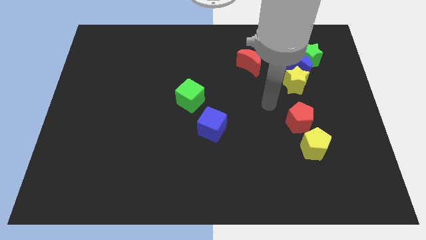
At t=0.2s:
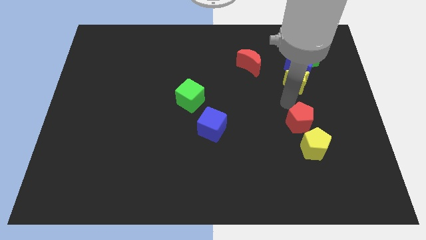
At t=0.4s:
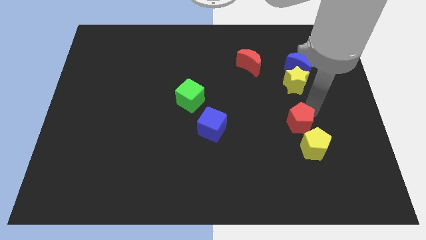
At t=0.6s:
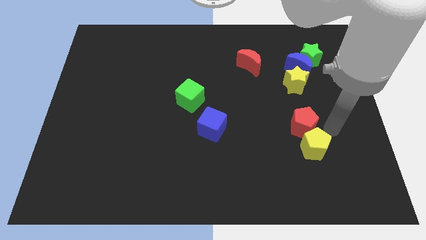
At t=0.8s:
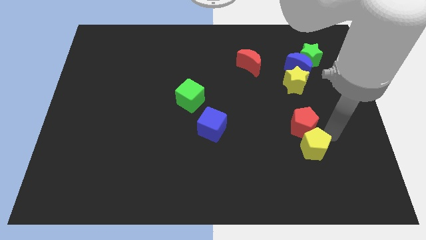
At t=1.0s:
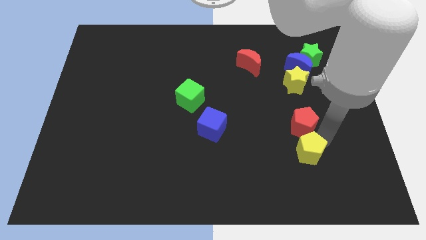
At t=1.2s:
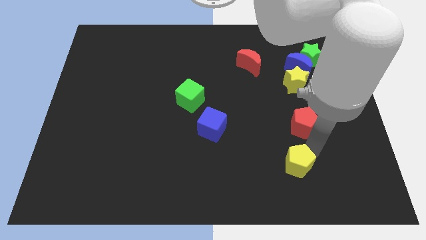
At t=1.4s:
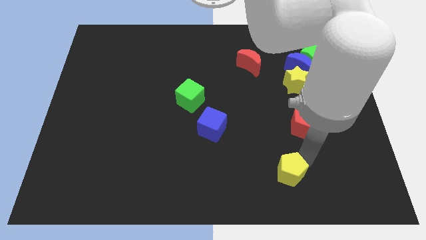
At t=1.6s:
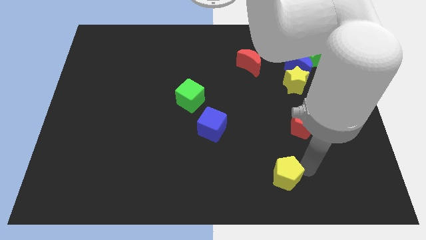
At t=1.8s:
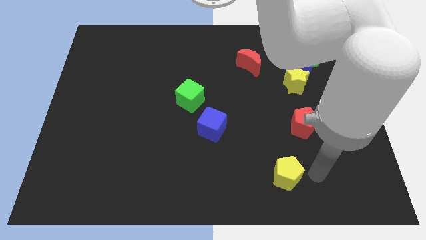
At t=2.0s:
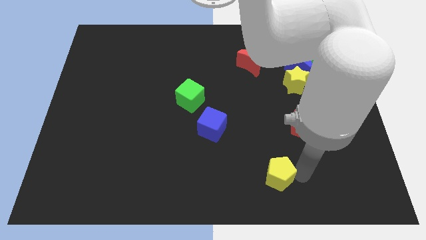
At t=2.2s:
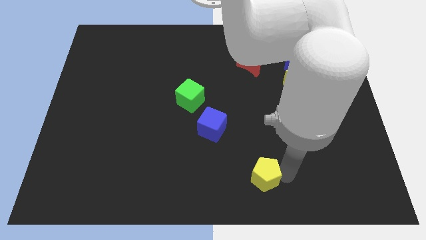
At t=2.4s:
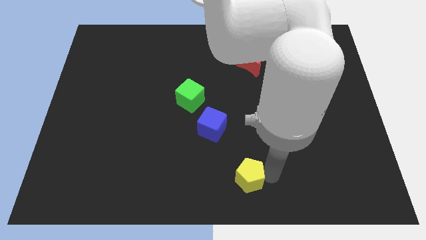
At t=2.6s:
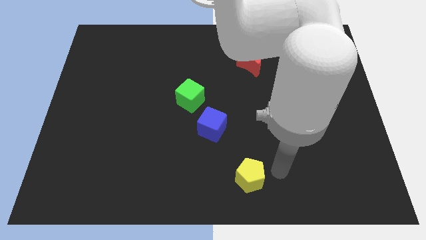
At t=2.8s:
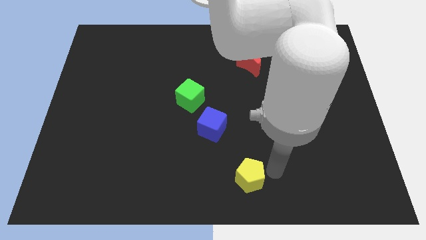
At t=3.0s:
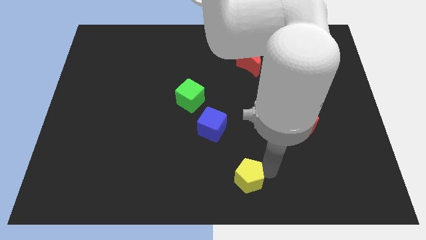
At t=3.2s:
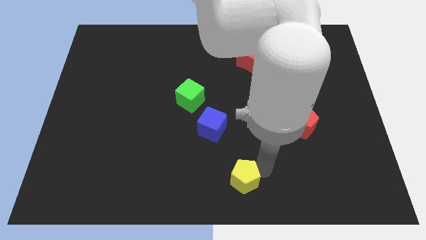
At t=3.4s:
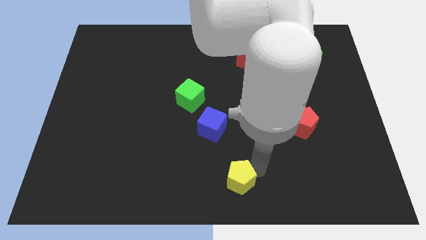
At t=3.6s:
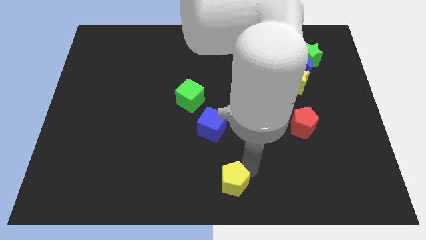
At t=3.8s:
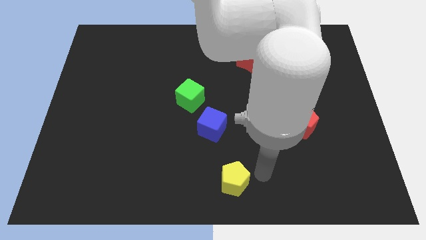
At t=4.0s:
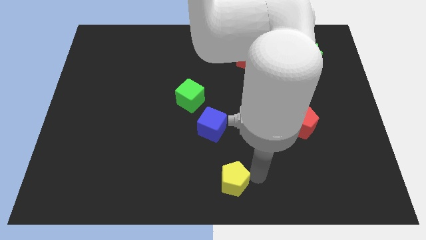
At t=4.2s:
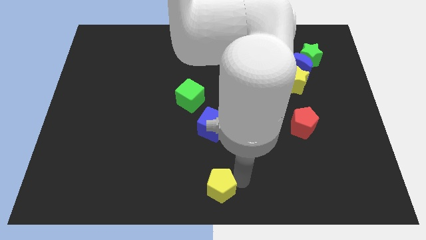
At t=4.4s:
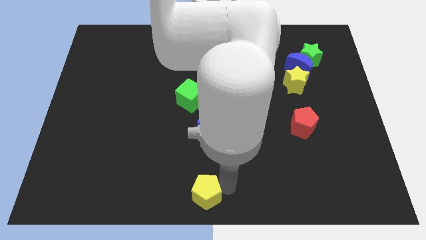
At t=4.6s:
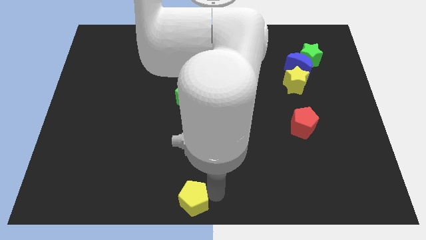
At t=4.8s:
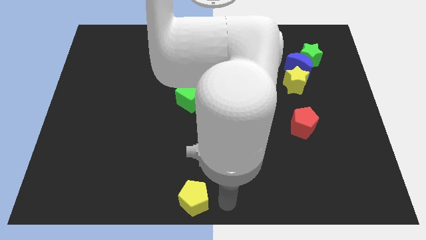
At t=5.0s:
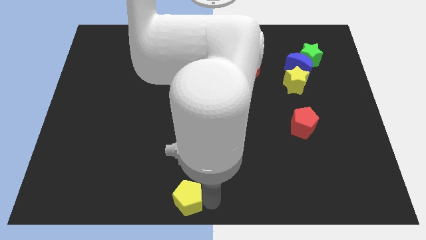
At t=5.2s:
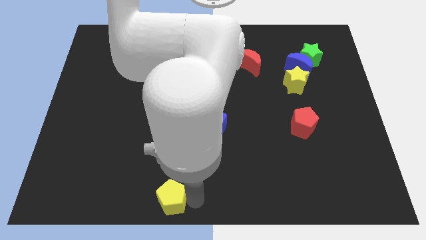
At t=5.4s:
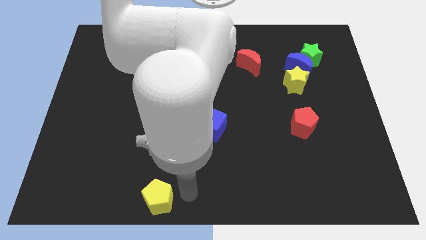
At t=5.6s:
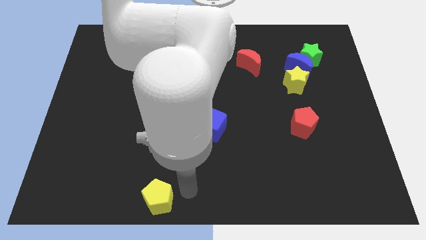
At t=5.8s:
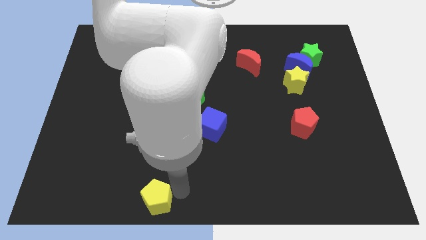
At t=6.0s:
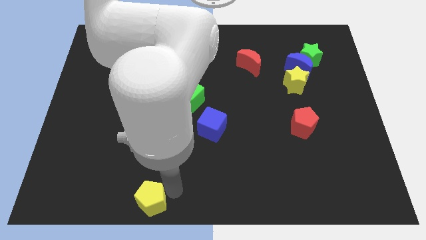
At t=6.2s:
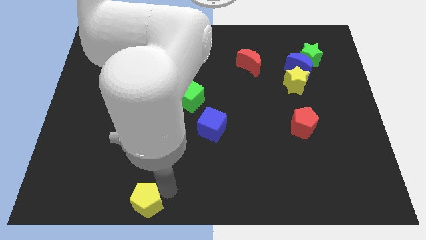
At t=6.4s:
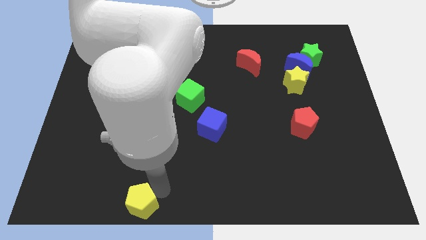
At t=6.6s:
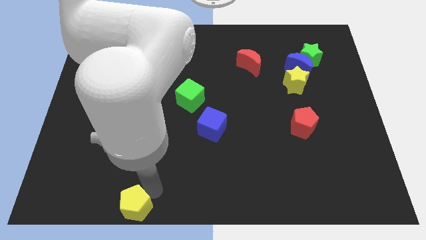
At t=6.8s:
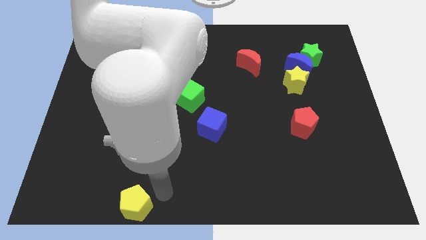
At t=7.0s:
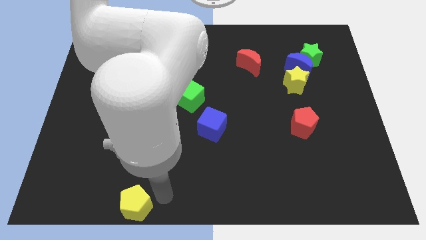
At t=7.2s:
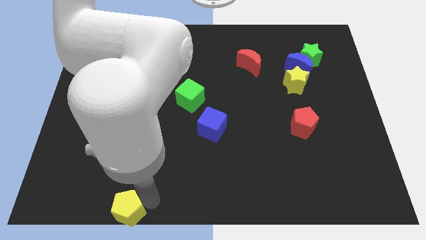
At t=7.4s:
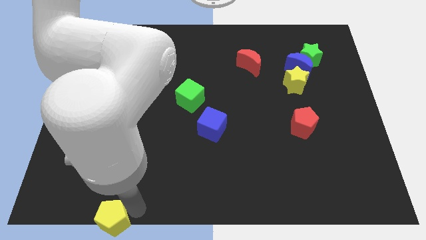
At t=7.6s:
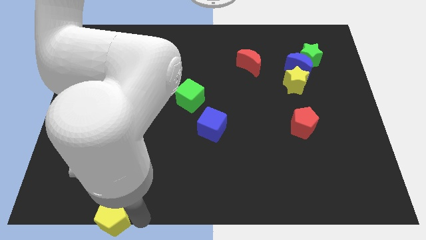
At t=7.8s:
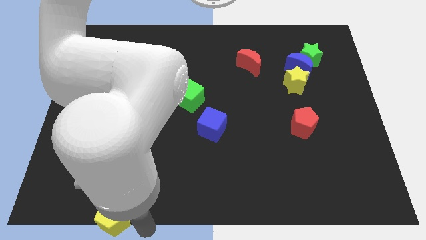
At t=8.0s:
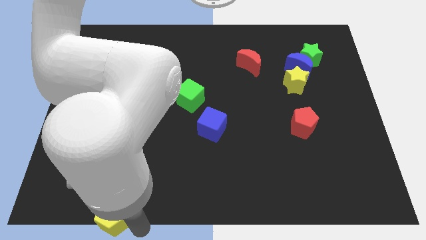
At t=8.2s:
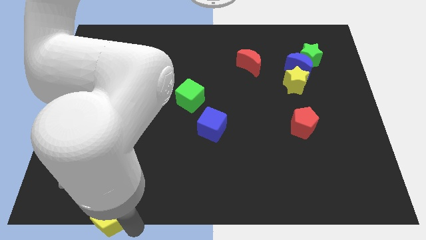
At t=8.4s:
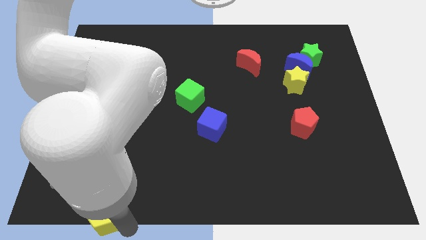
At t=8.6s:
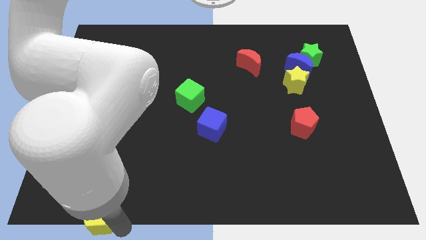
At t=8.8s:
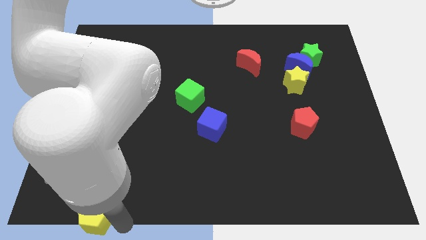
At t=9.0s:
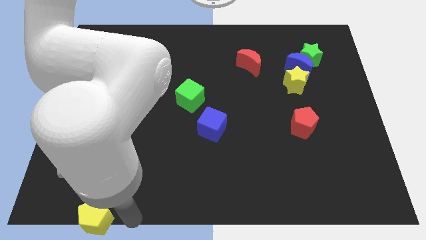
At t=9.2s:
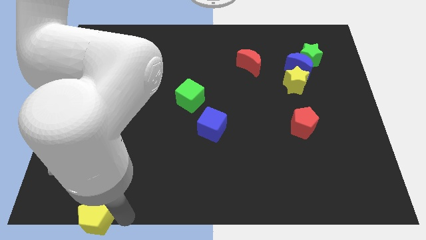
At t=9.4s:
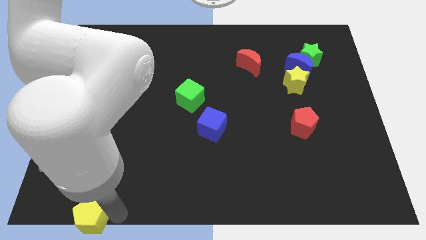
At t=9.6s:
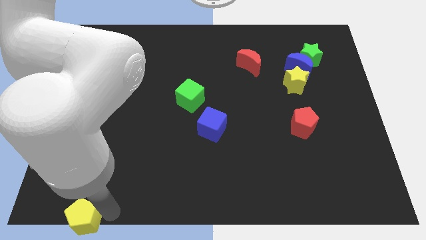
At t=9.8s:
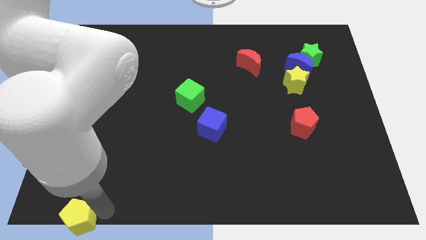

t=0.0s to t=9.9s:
put the yellow pentagon to the bottom left

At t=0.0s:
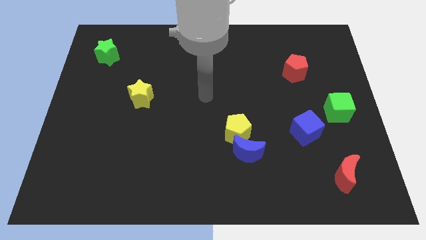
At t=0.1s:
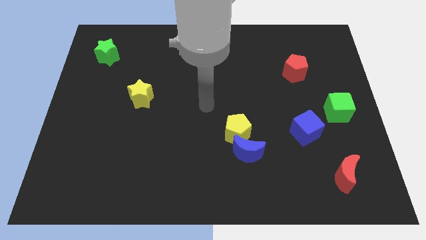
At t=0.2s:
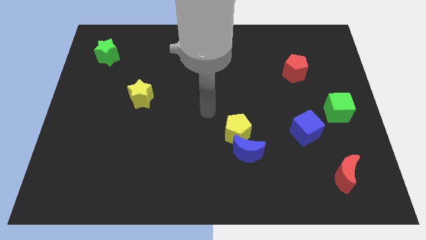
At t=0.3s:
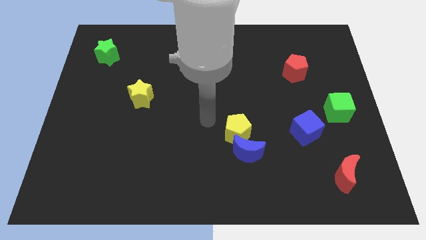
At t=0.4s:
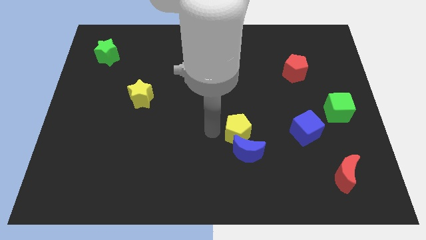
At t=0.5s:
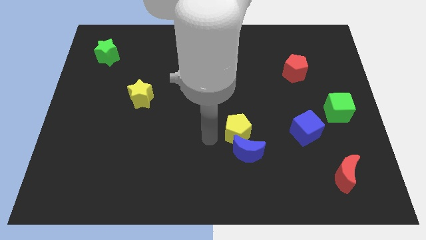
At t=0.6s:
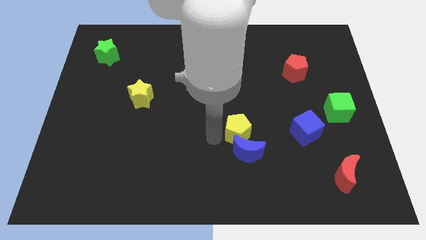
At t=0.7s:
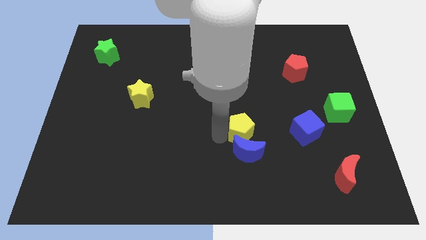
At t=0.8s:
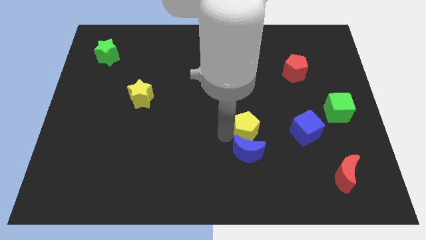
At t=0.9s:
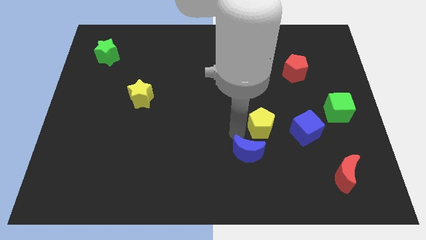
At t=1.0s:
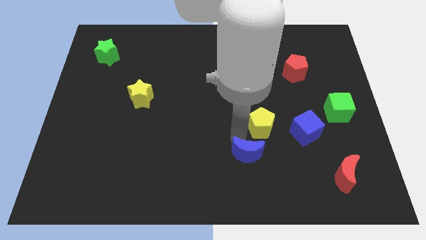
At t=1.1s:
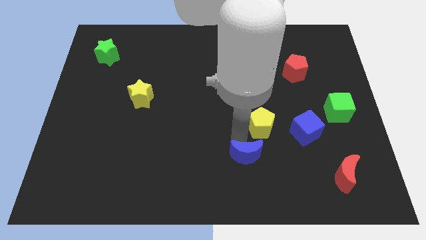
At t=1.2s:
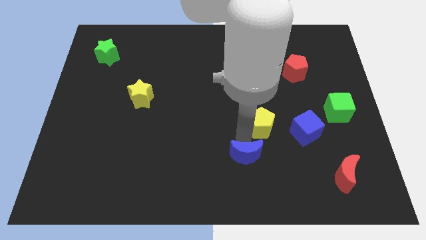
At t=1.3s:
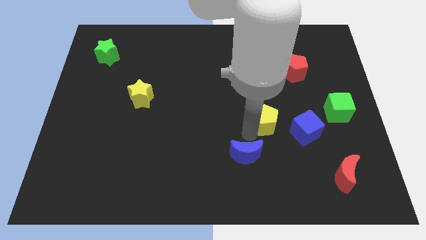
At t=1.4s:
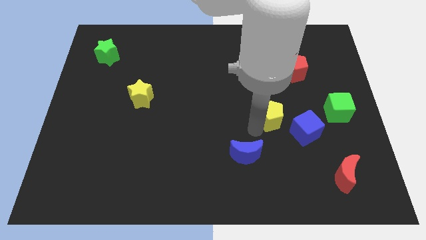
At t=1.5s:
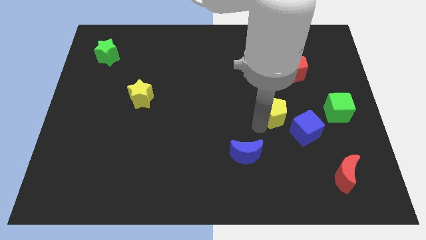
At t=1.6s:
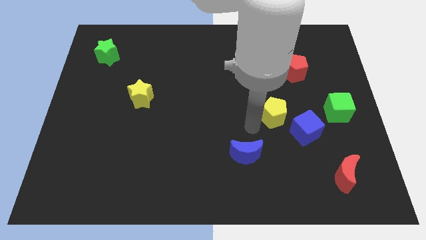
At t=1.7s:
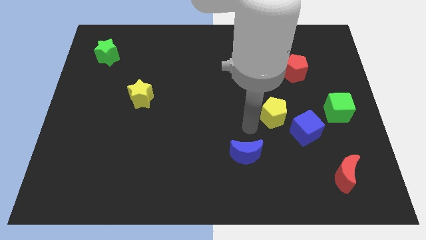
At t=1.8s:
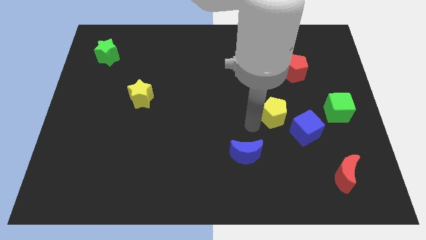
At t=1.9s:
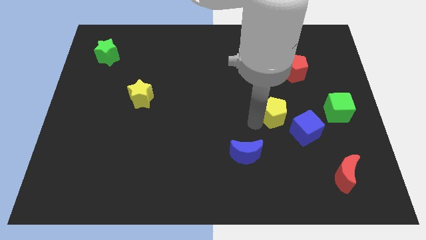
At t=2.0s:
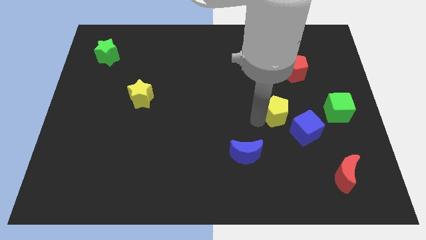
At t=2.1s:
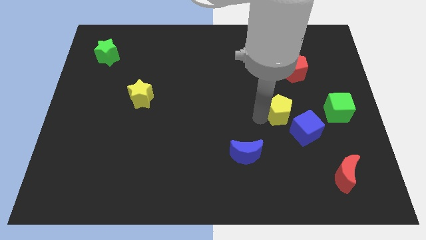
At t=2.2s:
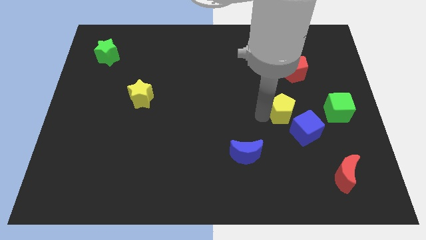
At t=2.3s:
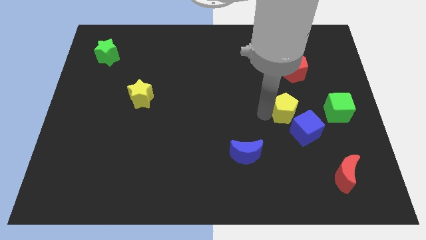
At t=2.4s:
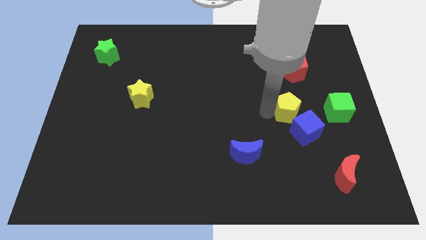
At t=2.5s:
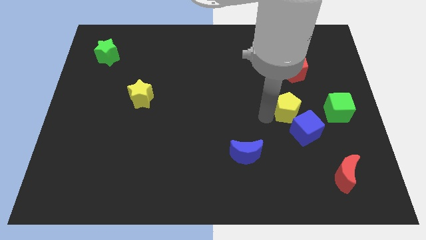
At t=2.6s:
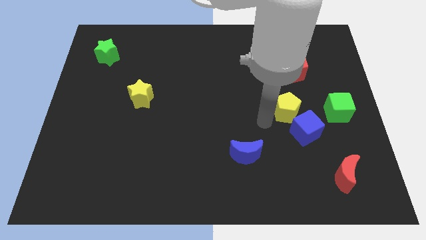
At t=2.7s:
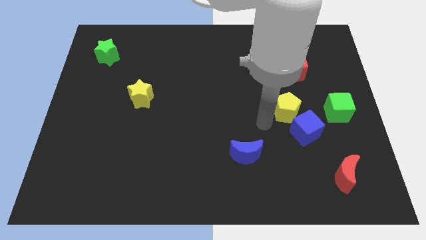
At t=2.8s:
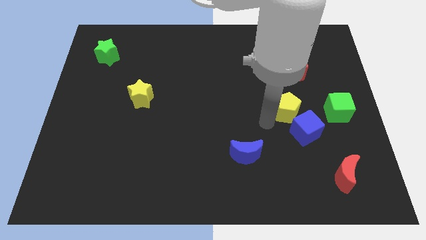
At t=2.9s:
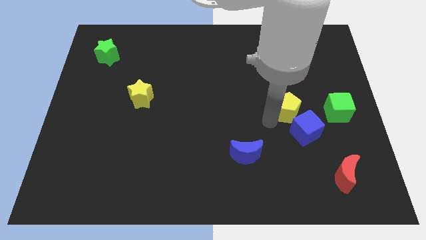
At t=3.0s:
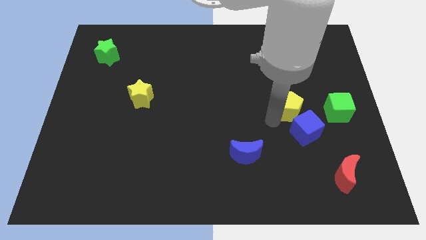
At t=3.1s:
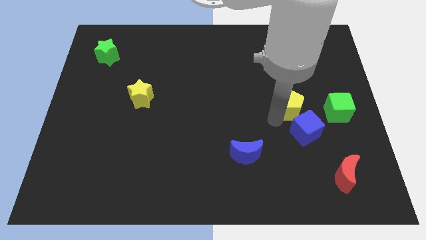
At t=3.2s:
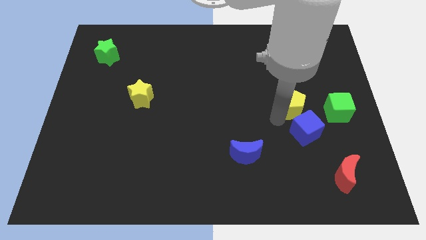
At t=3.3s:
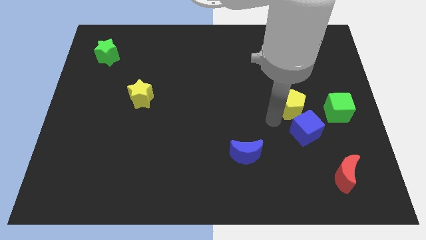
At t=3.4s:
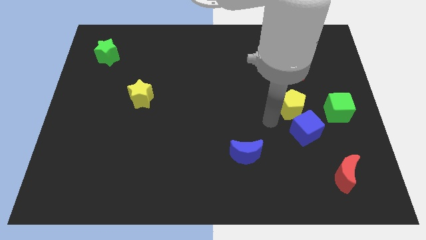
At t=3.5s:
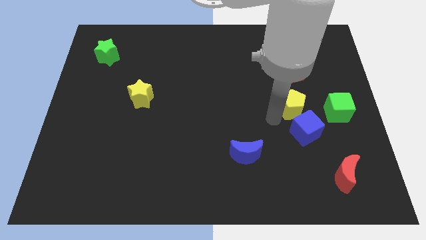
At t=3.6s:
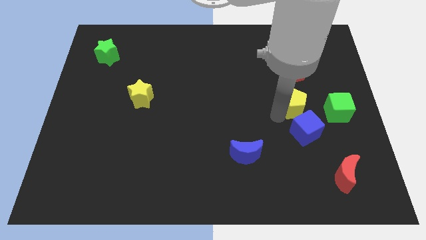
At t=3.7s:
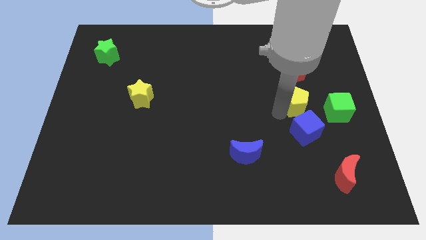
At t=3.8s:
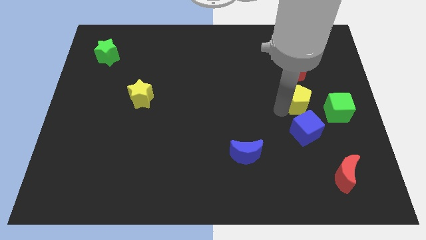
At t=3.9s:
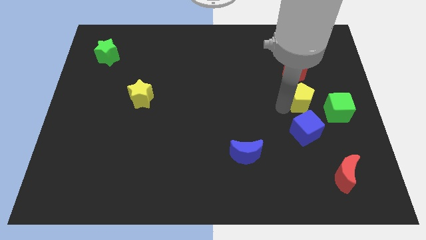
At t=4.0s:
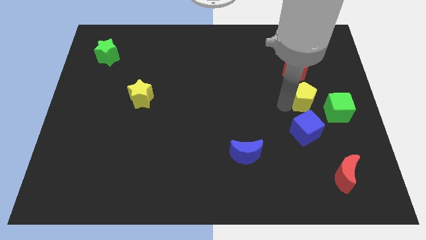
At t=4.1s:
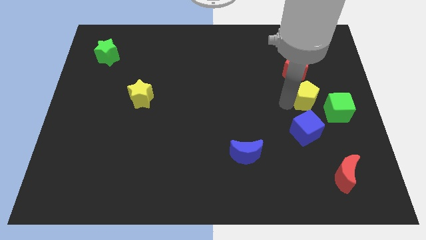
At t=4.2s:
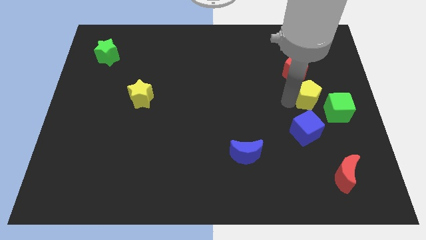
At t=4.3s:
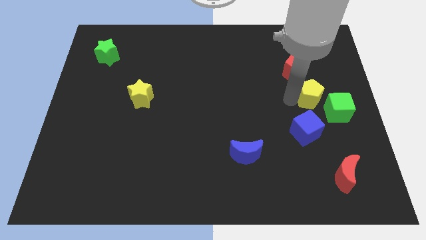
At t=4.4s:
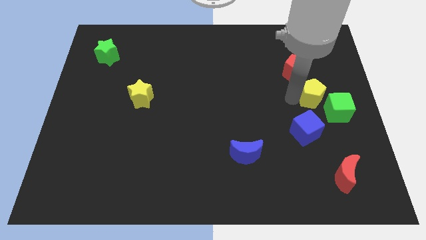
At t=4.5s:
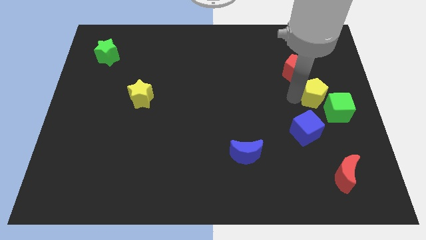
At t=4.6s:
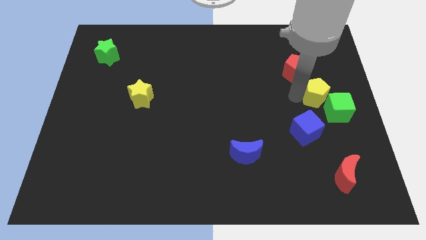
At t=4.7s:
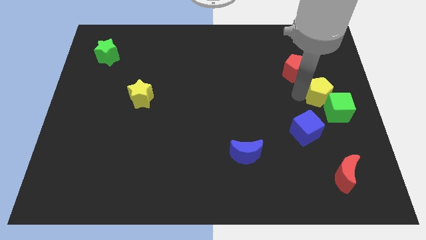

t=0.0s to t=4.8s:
slide the yellow pentagon to the right side of the board
